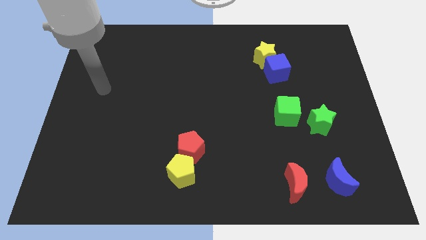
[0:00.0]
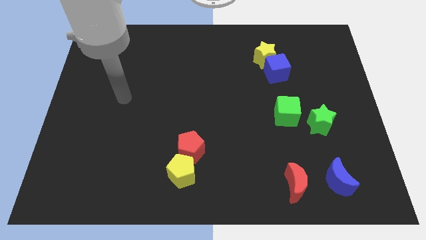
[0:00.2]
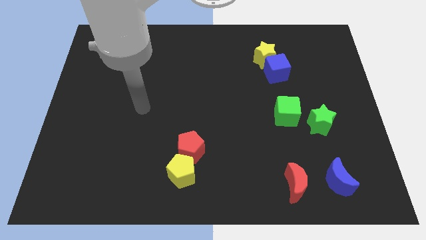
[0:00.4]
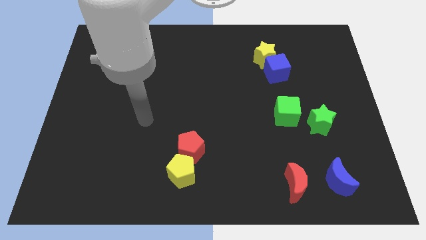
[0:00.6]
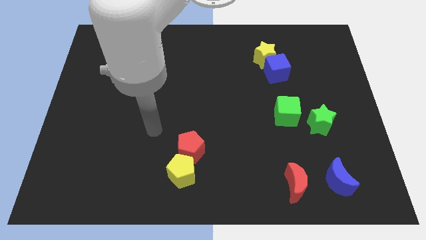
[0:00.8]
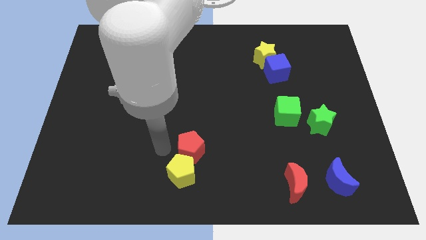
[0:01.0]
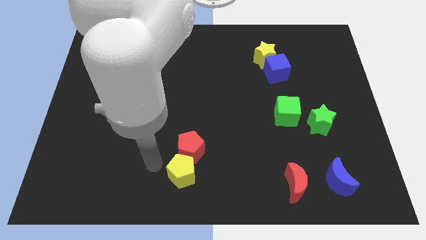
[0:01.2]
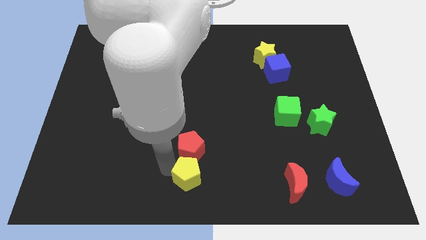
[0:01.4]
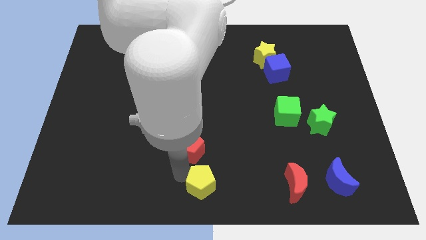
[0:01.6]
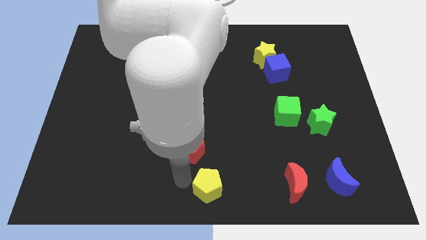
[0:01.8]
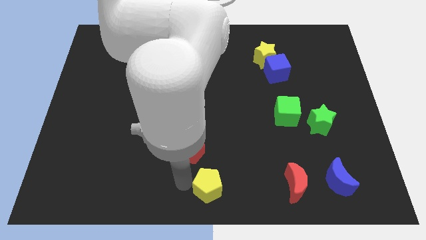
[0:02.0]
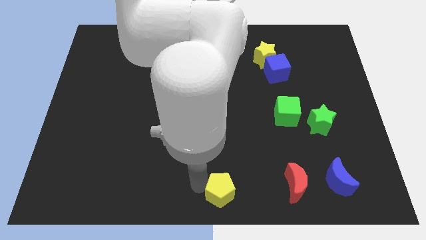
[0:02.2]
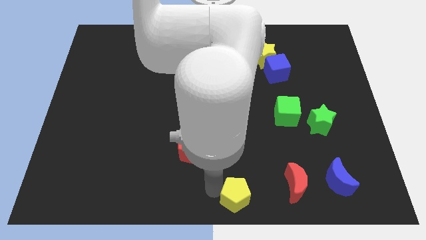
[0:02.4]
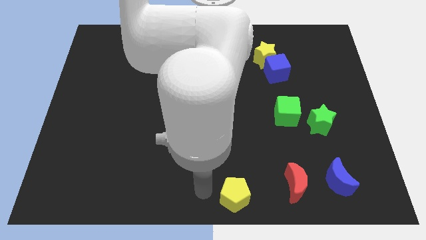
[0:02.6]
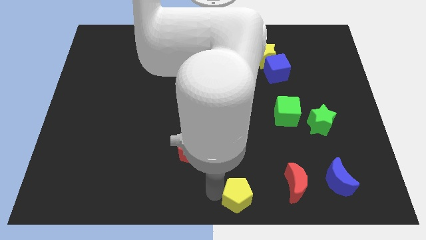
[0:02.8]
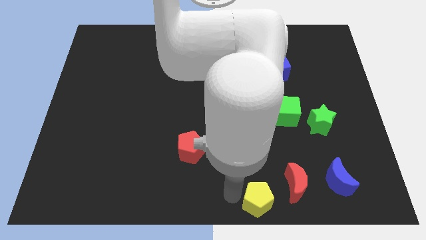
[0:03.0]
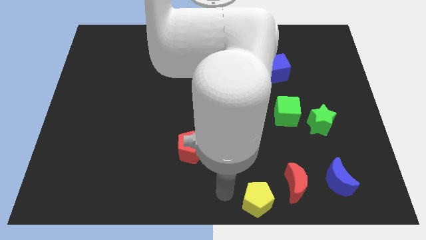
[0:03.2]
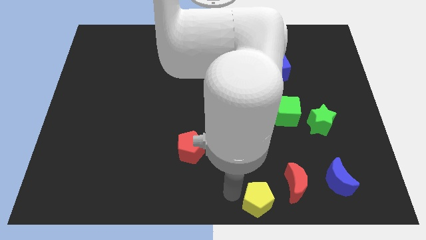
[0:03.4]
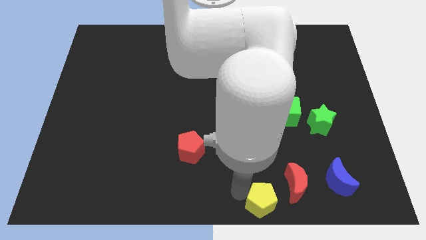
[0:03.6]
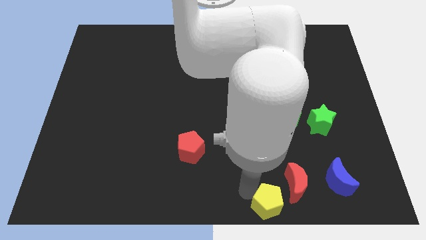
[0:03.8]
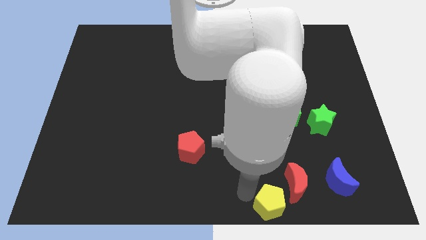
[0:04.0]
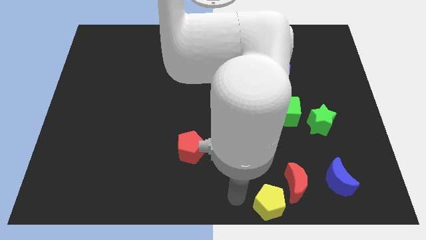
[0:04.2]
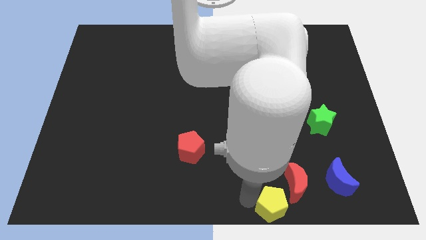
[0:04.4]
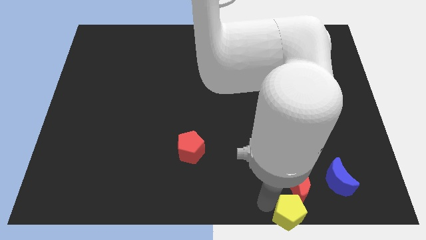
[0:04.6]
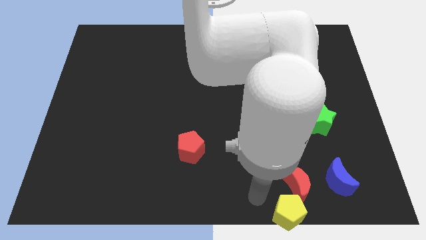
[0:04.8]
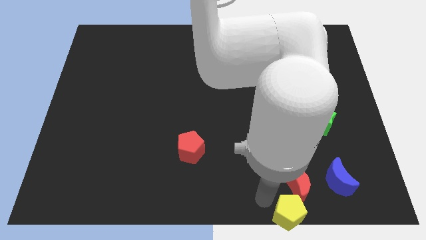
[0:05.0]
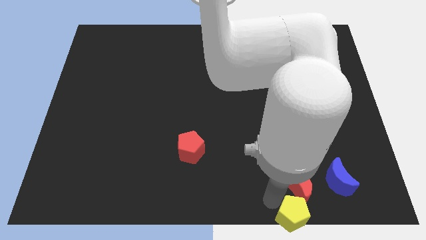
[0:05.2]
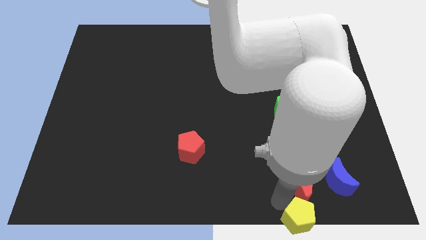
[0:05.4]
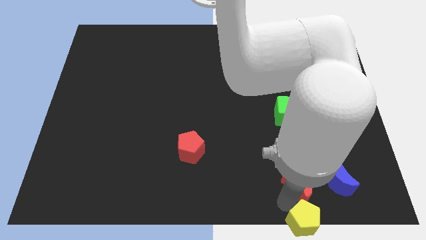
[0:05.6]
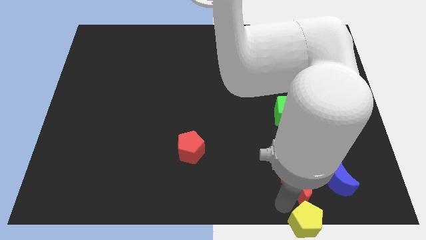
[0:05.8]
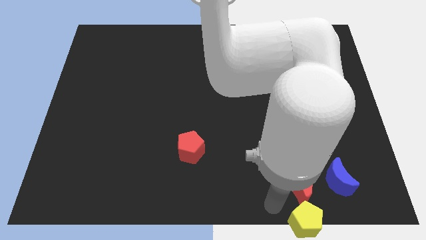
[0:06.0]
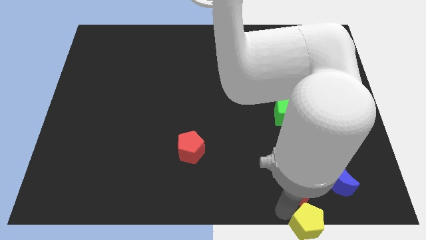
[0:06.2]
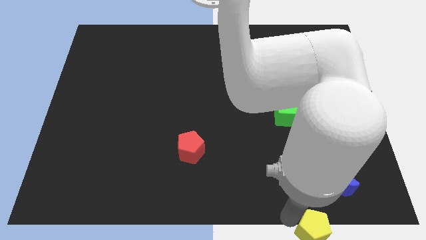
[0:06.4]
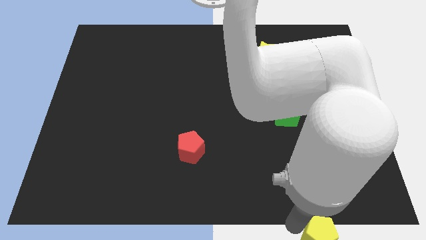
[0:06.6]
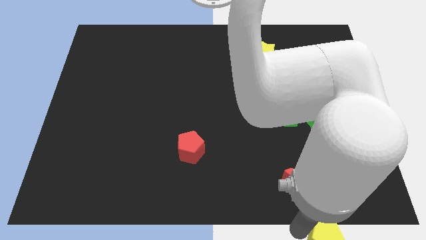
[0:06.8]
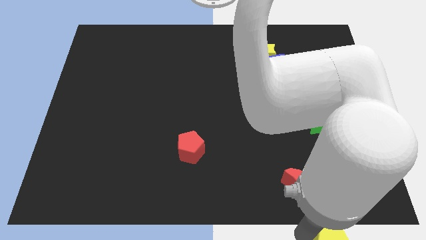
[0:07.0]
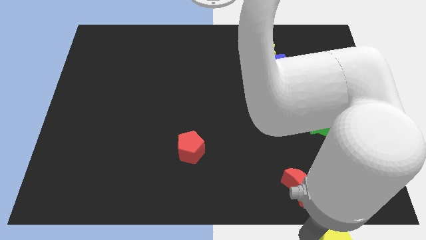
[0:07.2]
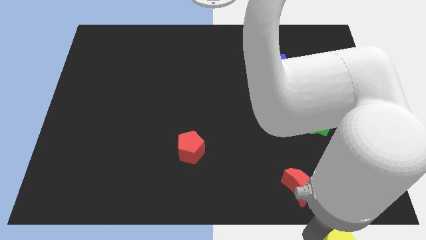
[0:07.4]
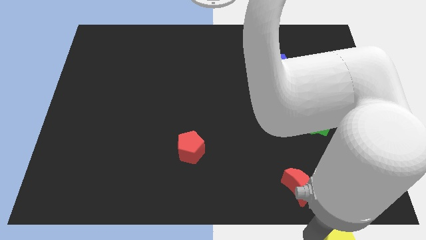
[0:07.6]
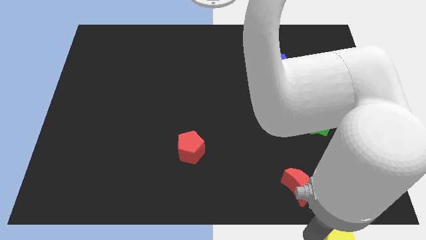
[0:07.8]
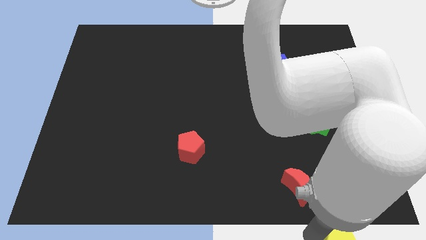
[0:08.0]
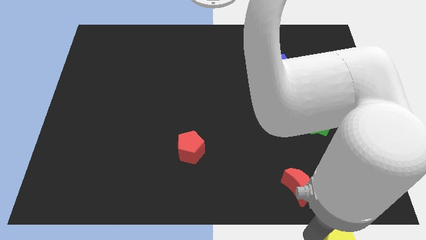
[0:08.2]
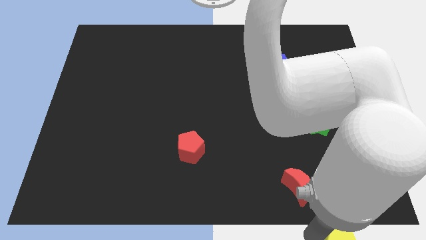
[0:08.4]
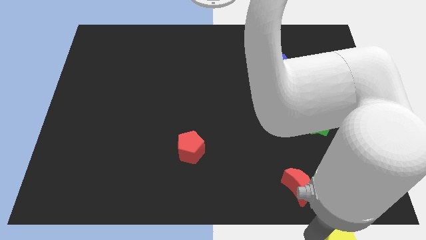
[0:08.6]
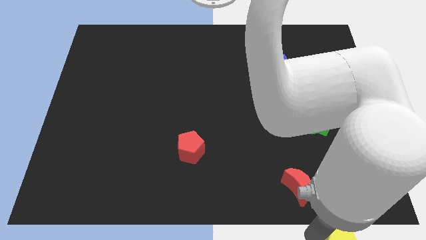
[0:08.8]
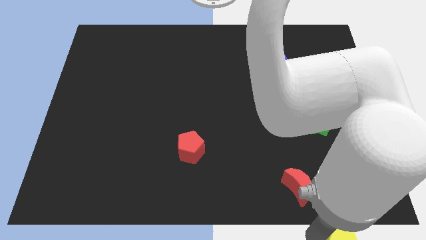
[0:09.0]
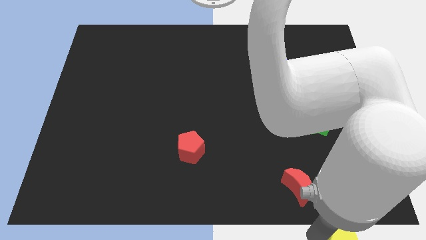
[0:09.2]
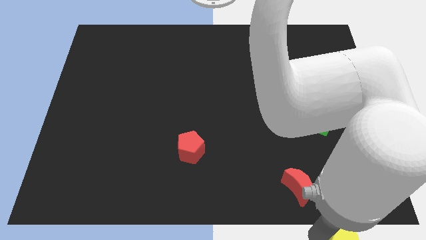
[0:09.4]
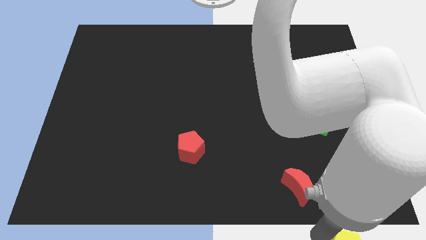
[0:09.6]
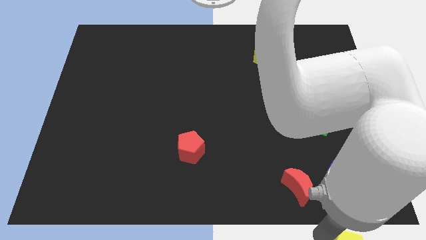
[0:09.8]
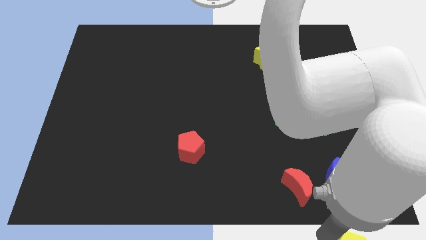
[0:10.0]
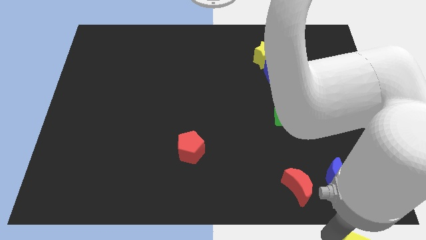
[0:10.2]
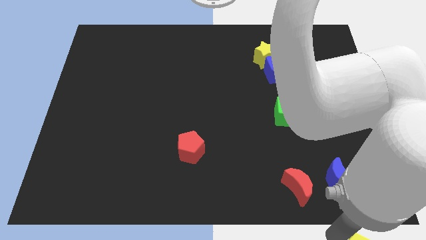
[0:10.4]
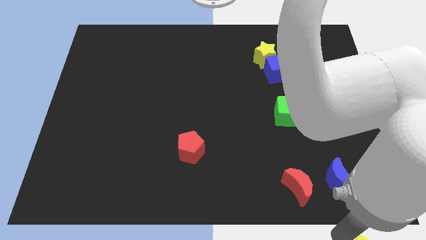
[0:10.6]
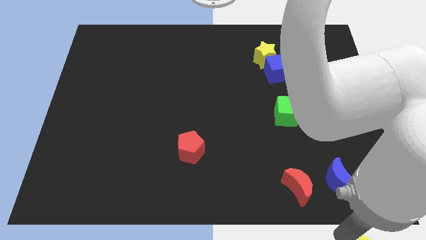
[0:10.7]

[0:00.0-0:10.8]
push the yellow pentagon to the lower right corner

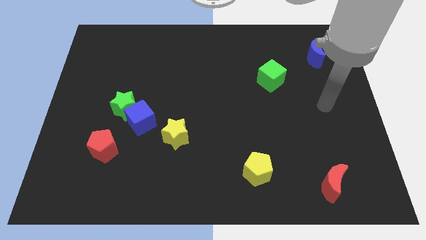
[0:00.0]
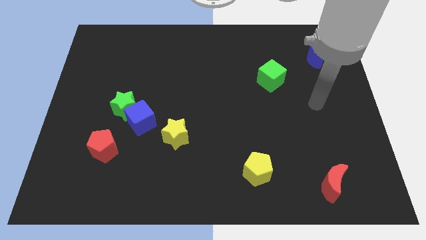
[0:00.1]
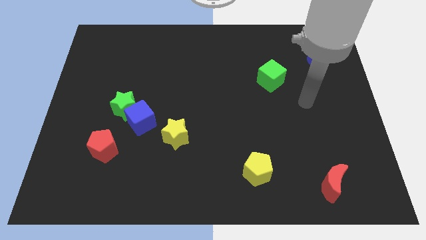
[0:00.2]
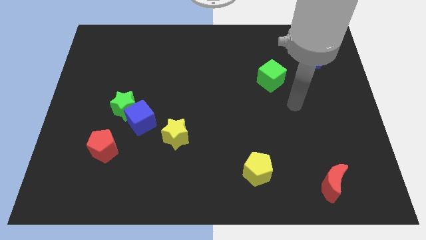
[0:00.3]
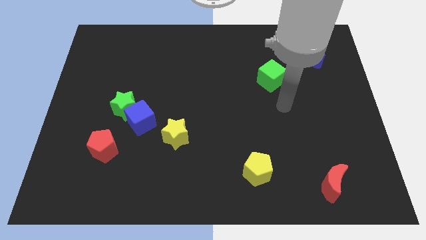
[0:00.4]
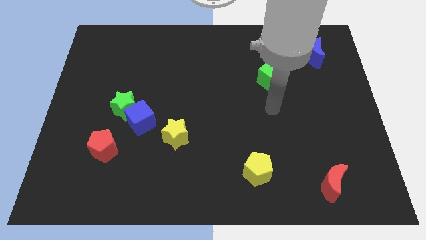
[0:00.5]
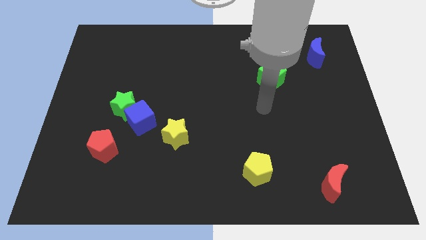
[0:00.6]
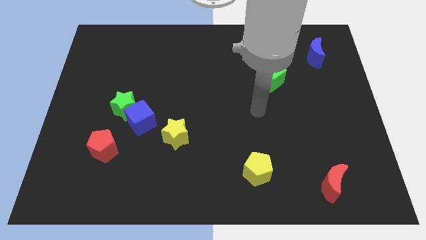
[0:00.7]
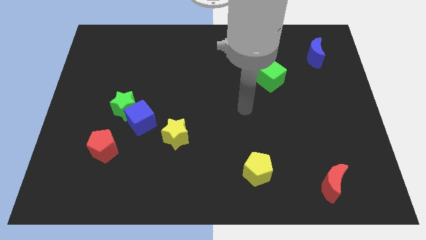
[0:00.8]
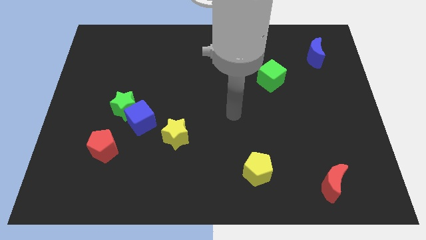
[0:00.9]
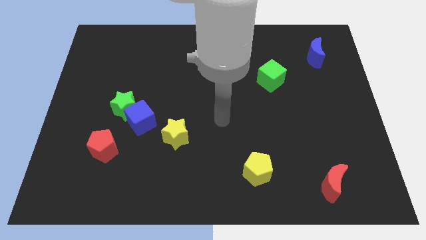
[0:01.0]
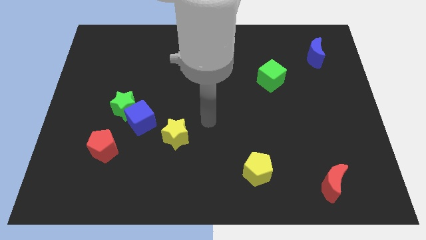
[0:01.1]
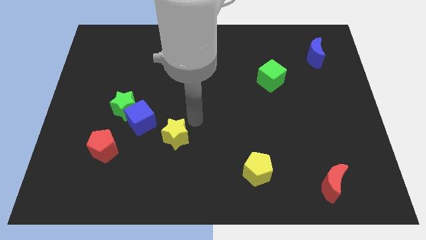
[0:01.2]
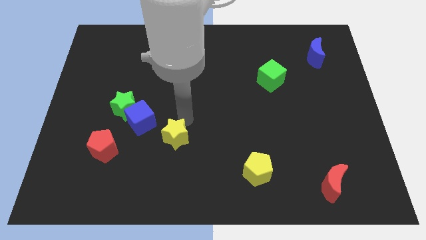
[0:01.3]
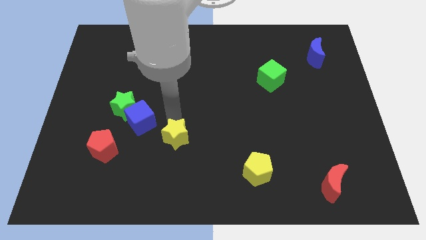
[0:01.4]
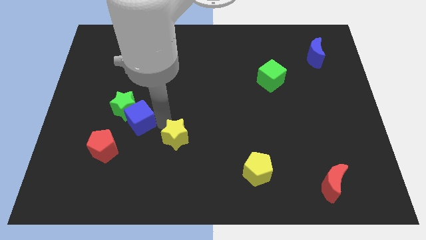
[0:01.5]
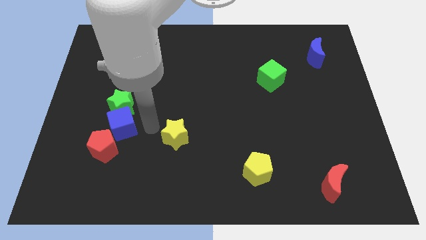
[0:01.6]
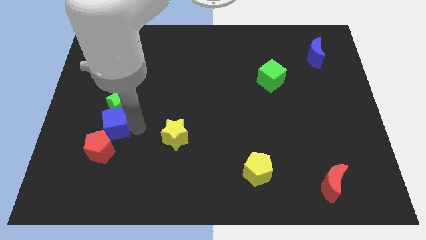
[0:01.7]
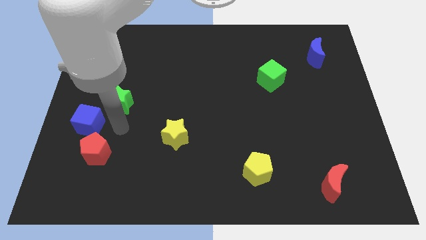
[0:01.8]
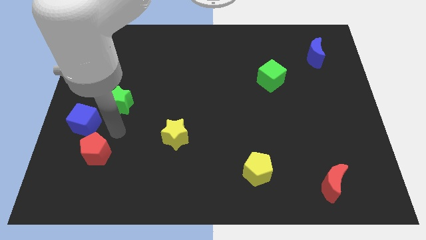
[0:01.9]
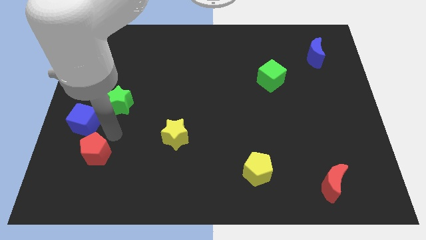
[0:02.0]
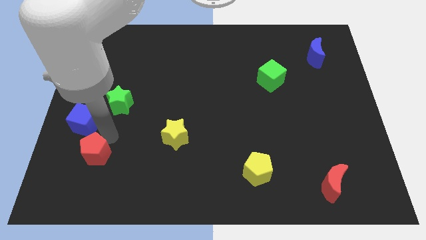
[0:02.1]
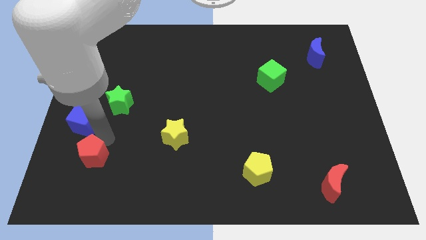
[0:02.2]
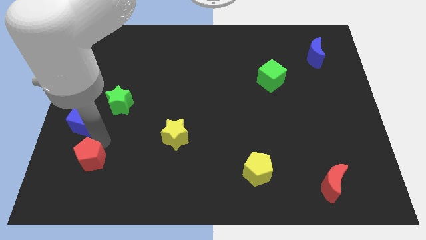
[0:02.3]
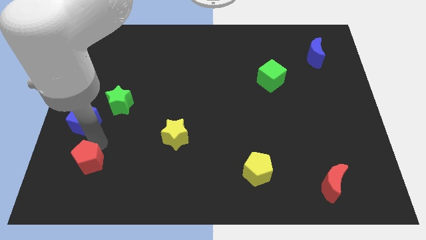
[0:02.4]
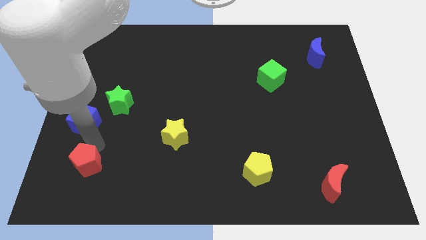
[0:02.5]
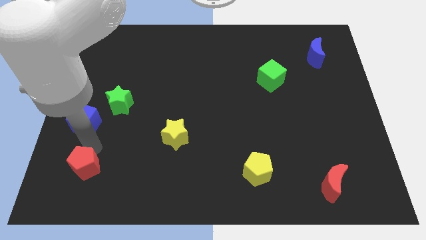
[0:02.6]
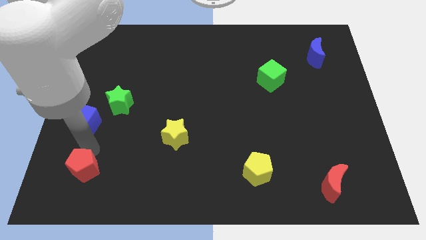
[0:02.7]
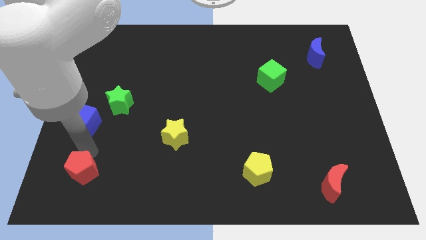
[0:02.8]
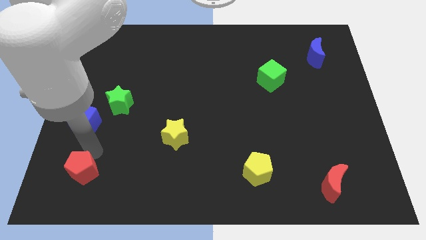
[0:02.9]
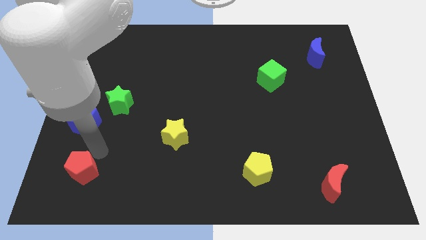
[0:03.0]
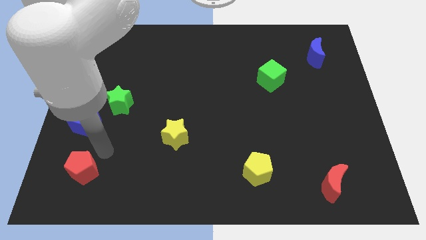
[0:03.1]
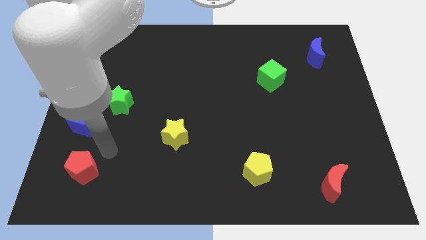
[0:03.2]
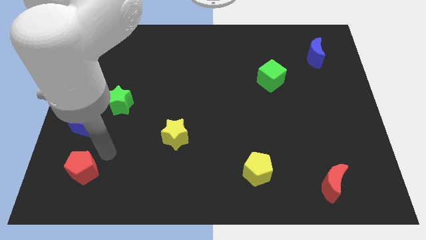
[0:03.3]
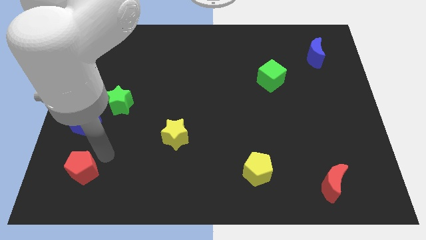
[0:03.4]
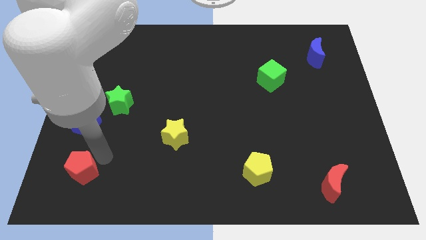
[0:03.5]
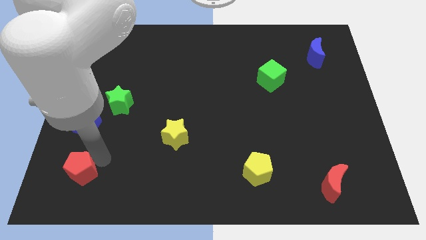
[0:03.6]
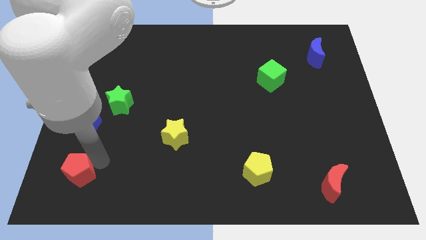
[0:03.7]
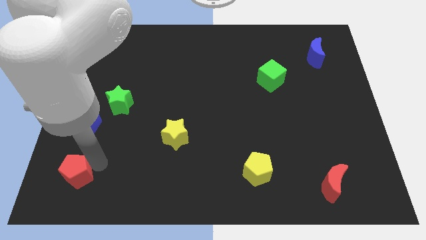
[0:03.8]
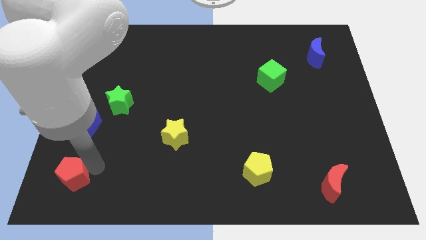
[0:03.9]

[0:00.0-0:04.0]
put the red pentagon to the bottom left corner
